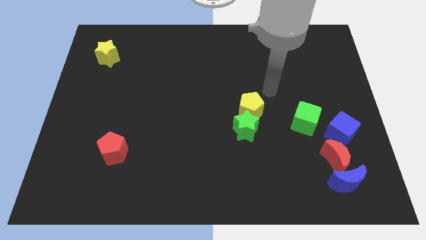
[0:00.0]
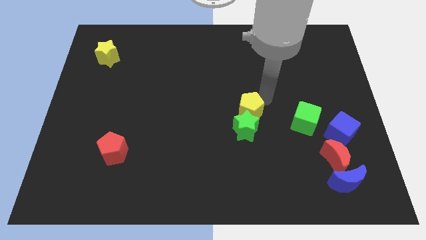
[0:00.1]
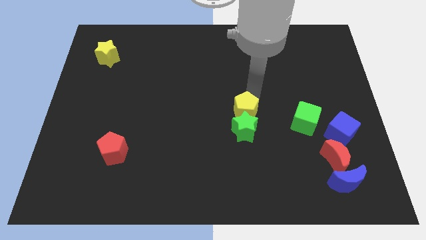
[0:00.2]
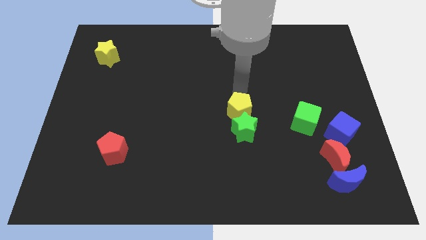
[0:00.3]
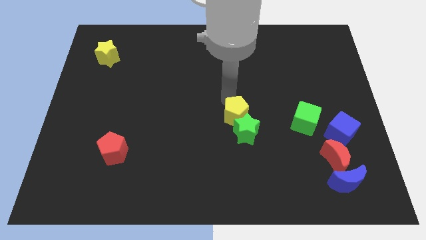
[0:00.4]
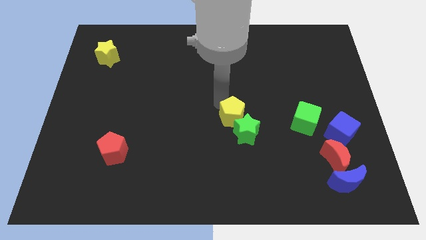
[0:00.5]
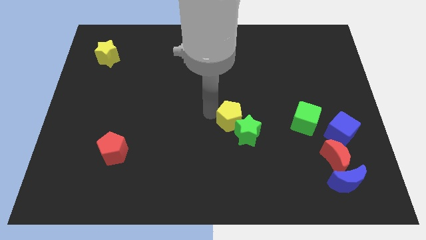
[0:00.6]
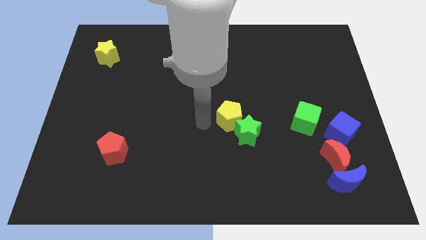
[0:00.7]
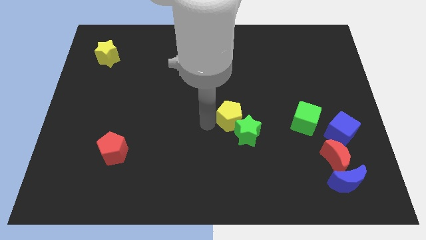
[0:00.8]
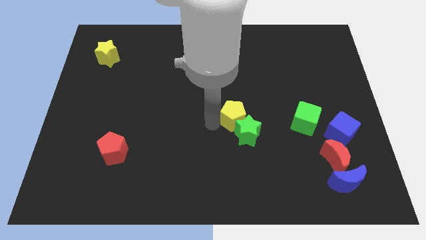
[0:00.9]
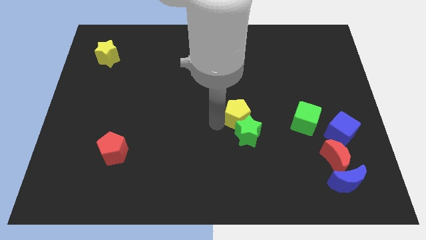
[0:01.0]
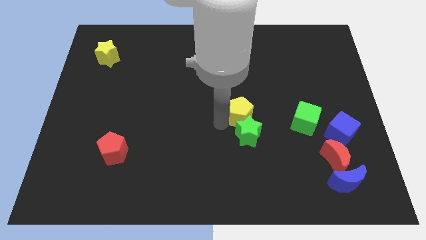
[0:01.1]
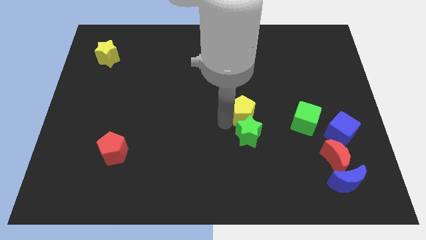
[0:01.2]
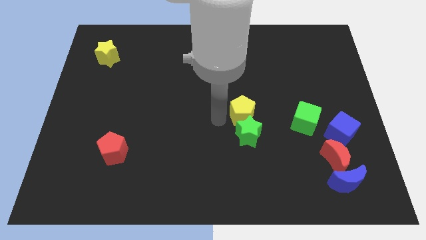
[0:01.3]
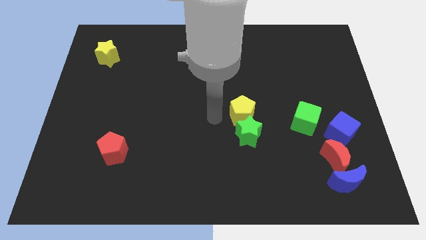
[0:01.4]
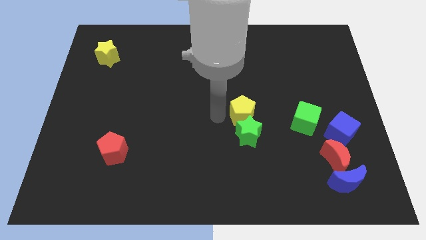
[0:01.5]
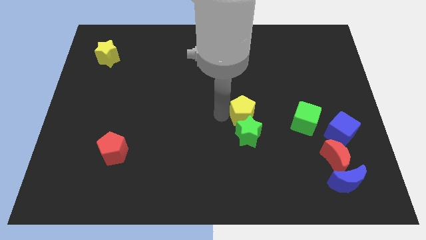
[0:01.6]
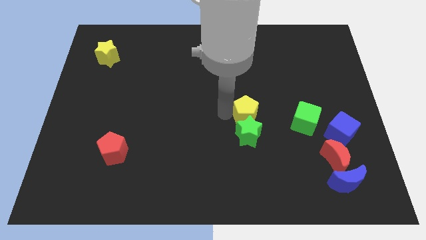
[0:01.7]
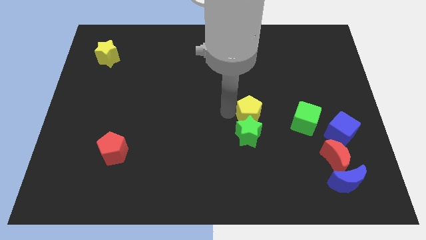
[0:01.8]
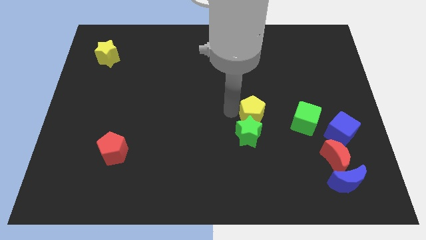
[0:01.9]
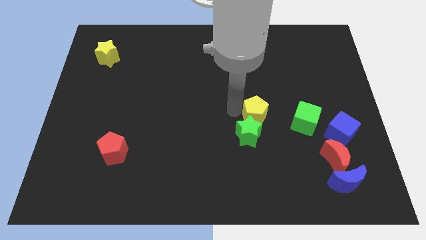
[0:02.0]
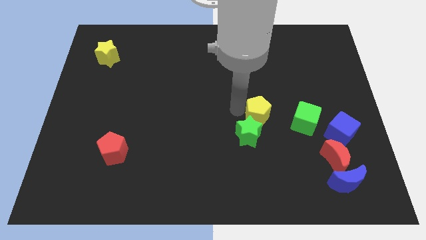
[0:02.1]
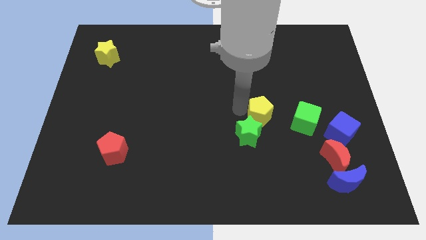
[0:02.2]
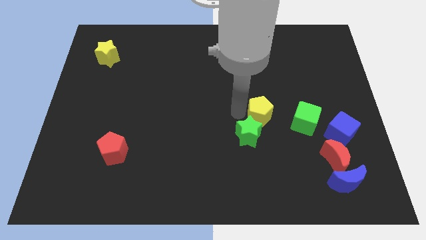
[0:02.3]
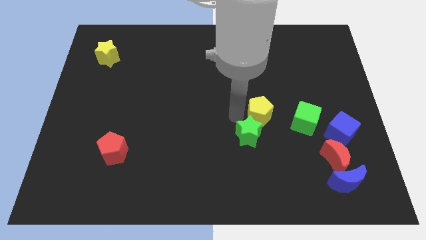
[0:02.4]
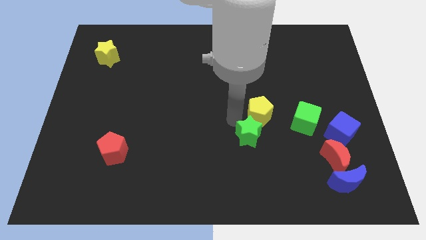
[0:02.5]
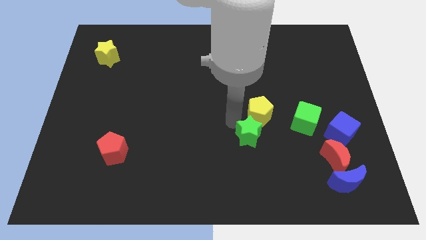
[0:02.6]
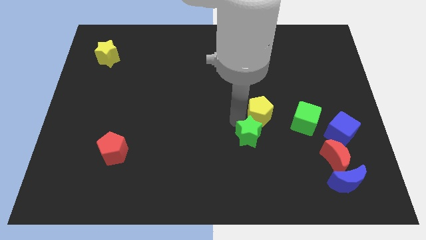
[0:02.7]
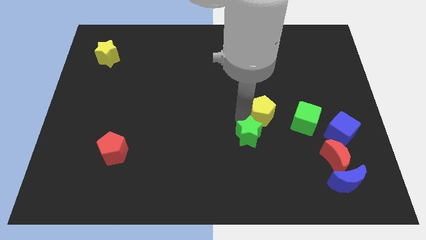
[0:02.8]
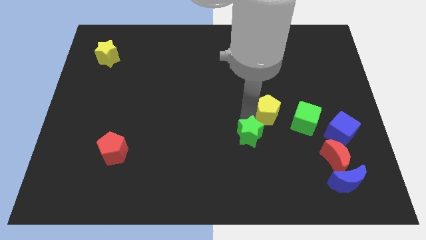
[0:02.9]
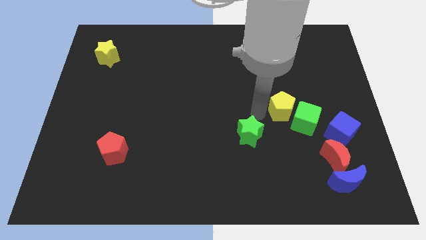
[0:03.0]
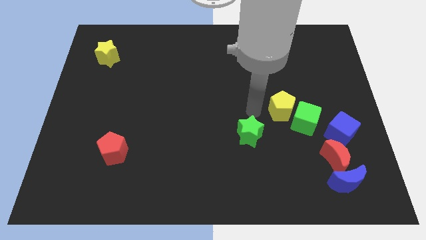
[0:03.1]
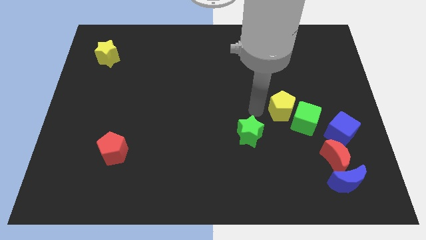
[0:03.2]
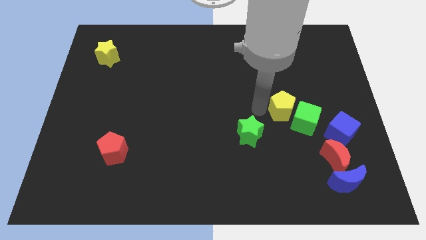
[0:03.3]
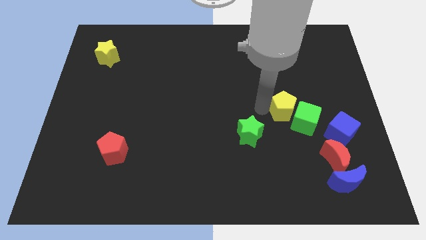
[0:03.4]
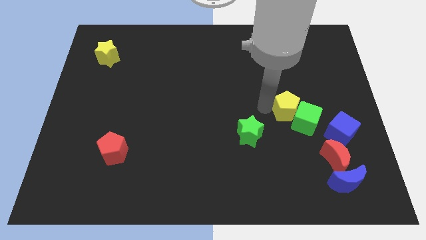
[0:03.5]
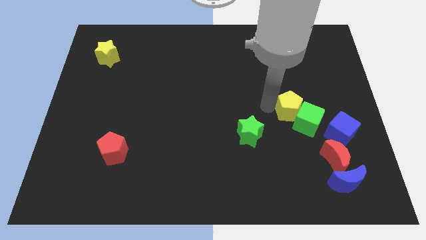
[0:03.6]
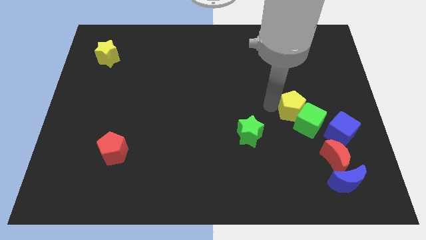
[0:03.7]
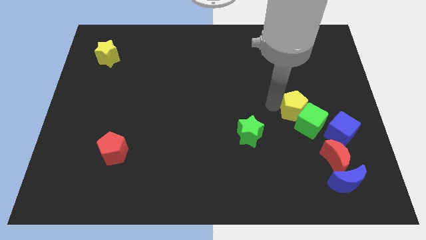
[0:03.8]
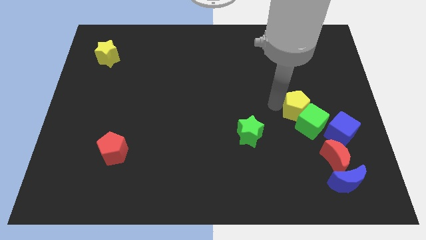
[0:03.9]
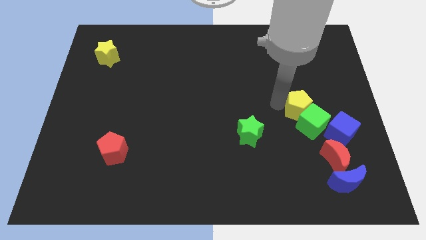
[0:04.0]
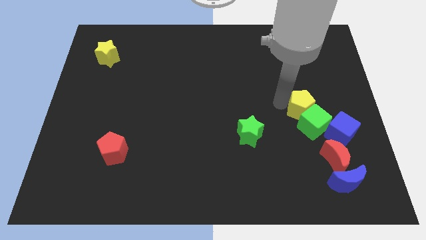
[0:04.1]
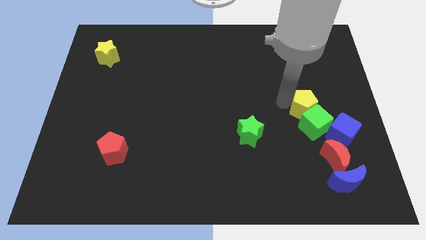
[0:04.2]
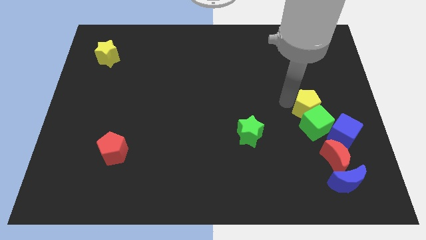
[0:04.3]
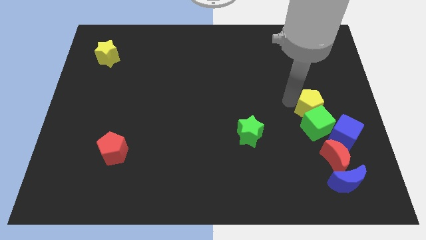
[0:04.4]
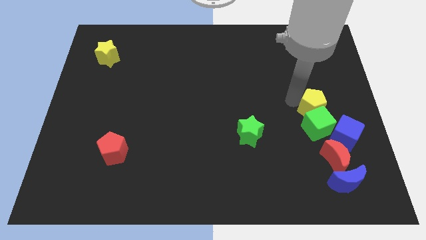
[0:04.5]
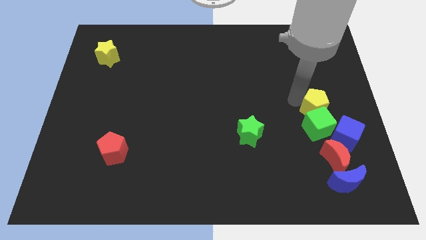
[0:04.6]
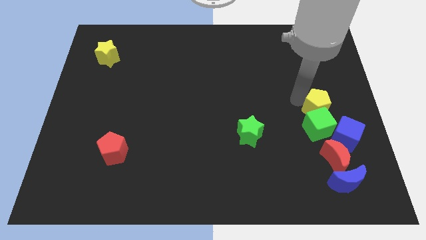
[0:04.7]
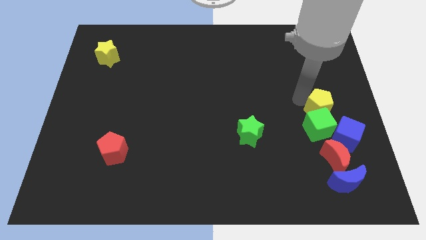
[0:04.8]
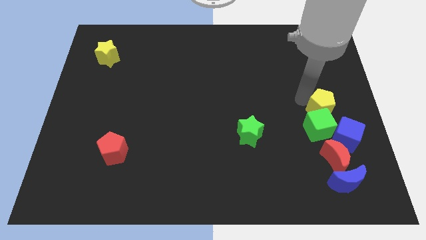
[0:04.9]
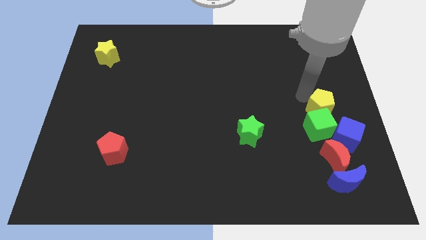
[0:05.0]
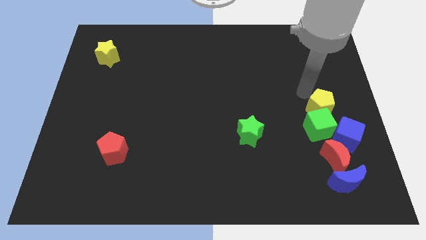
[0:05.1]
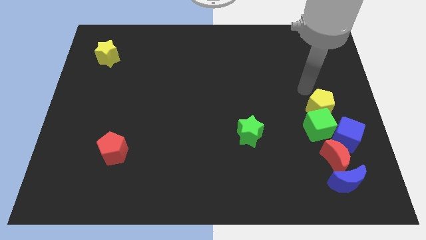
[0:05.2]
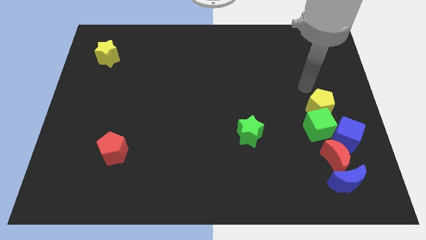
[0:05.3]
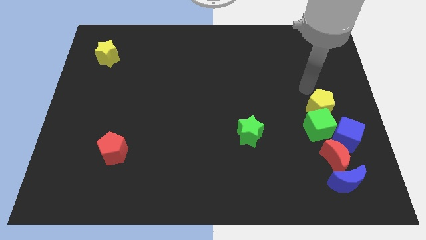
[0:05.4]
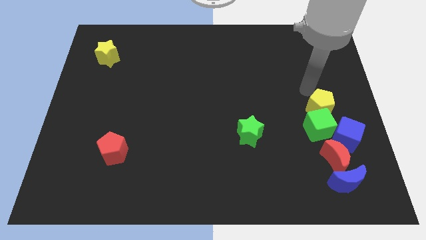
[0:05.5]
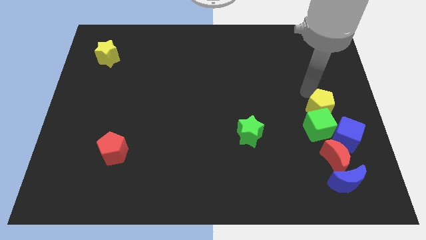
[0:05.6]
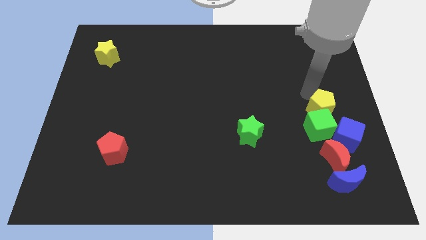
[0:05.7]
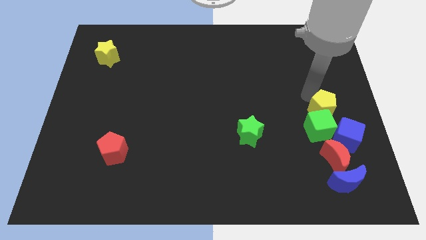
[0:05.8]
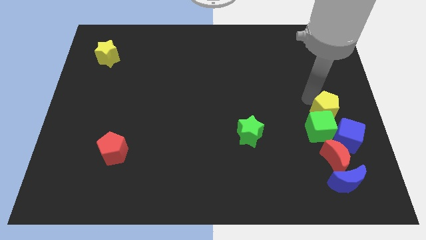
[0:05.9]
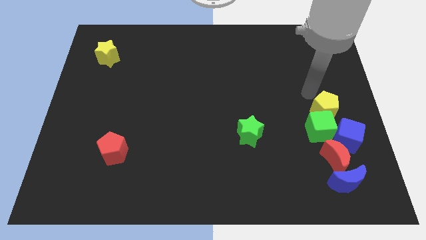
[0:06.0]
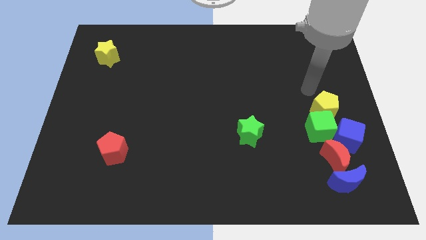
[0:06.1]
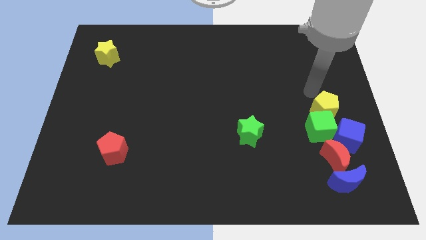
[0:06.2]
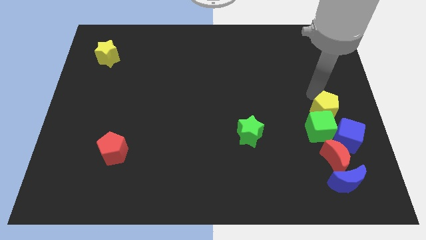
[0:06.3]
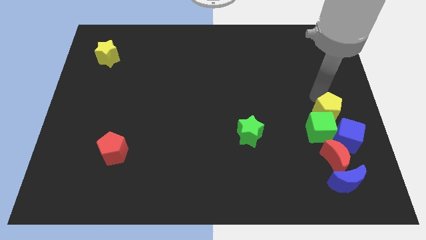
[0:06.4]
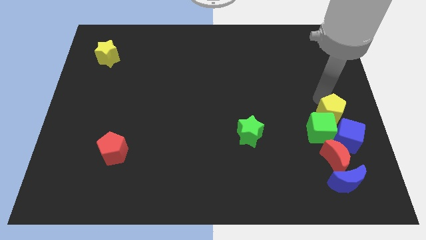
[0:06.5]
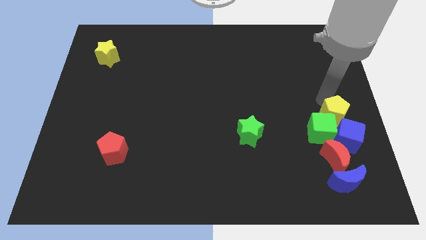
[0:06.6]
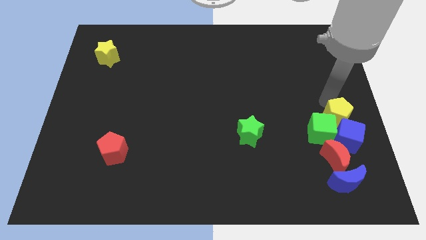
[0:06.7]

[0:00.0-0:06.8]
put the yellow pentagon next to the blue cube

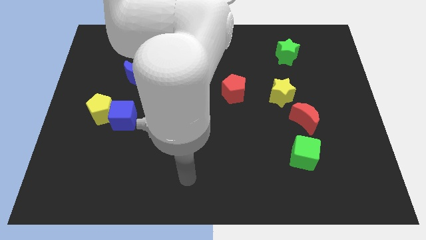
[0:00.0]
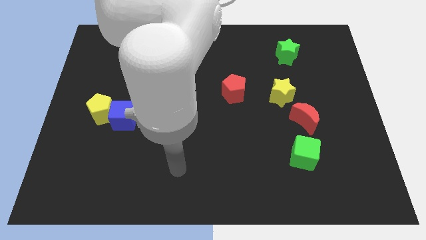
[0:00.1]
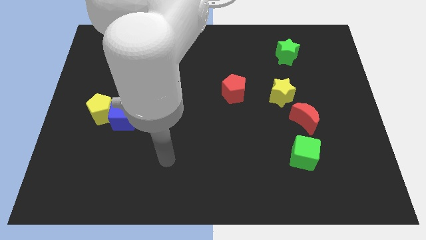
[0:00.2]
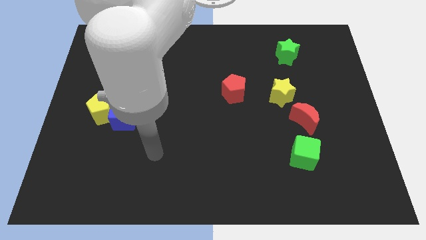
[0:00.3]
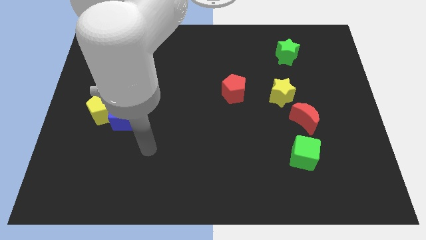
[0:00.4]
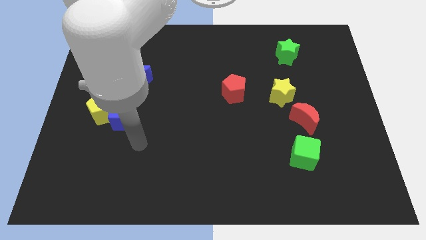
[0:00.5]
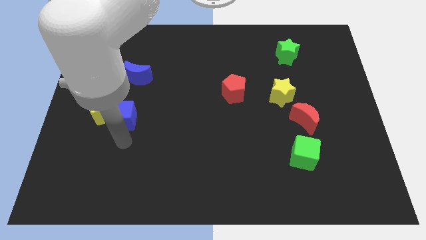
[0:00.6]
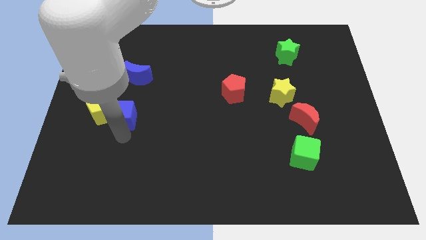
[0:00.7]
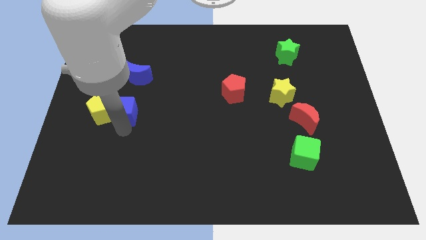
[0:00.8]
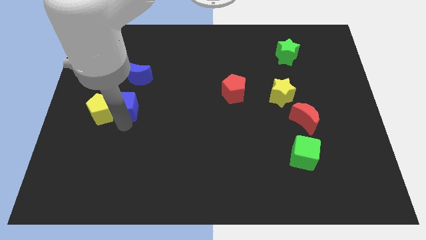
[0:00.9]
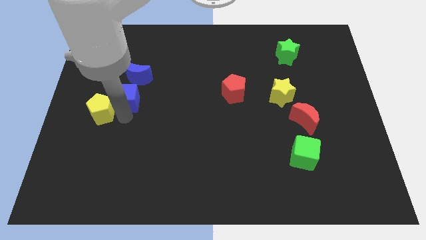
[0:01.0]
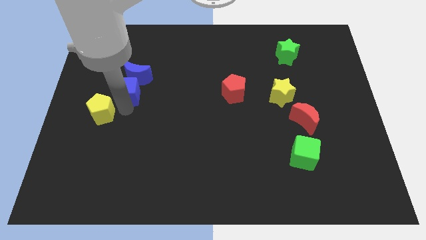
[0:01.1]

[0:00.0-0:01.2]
move the blue cube close to the blue moon
